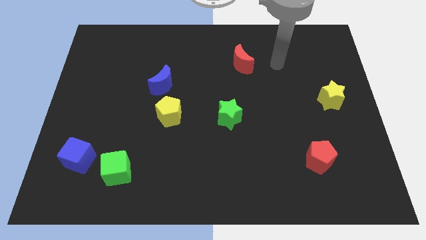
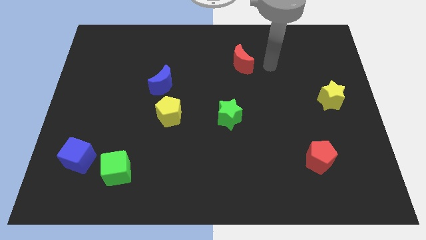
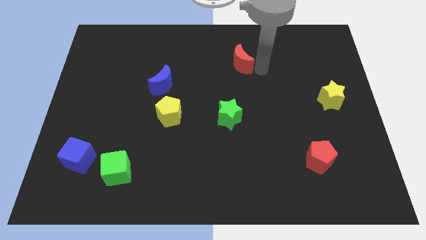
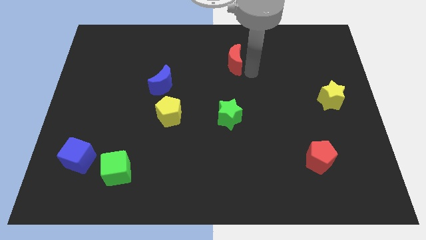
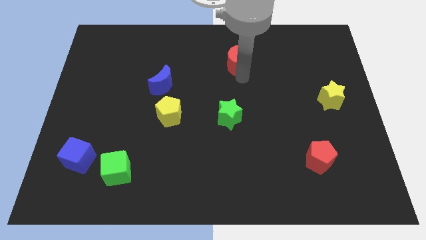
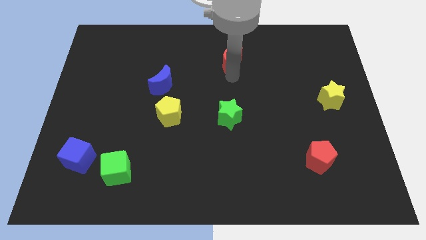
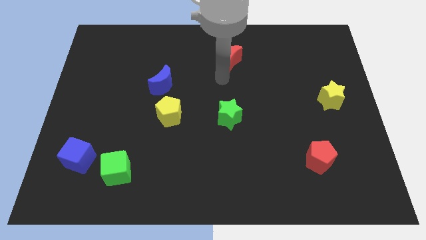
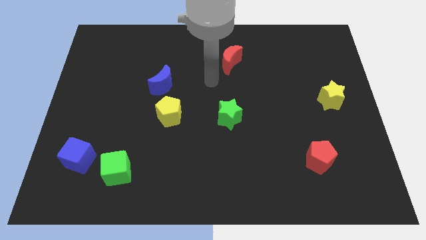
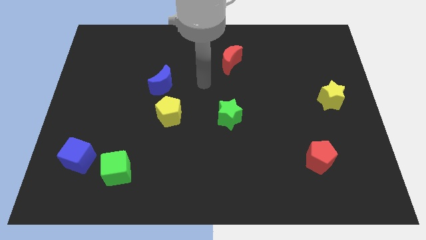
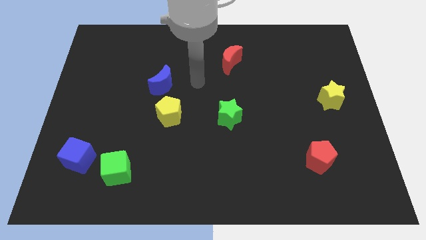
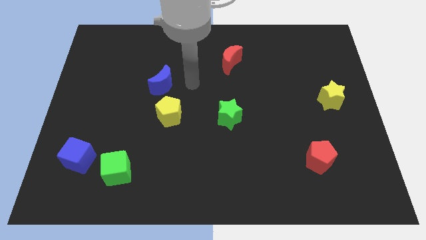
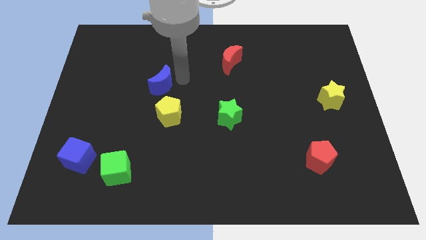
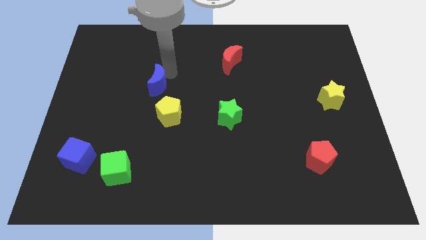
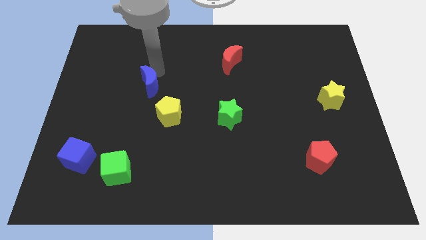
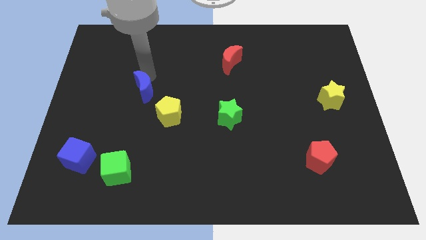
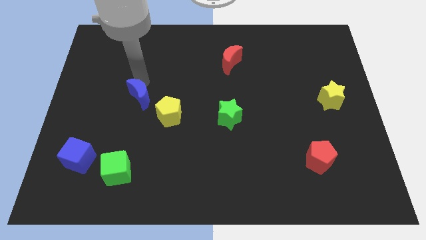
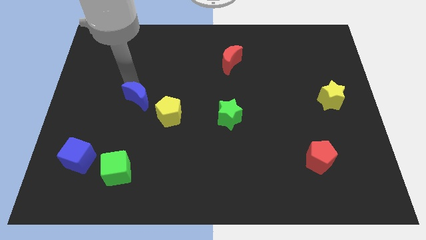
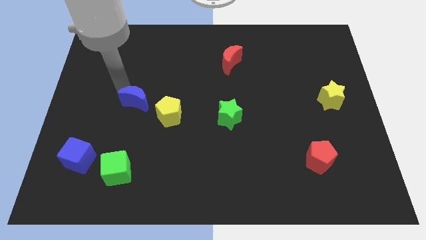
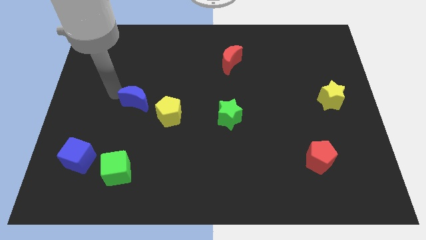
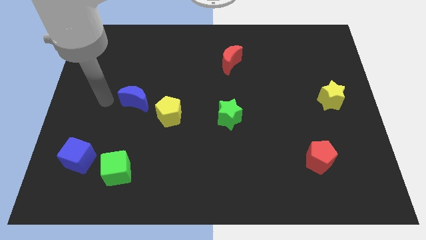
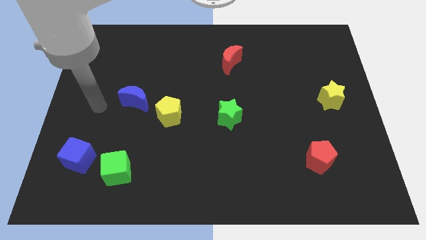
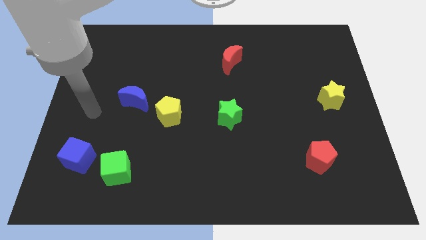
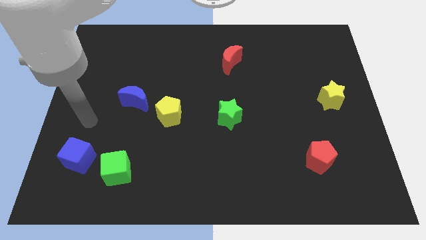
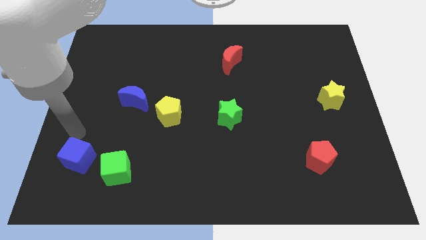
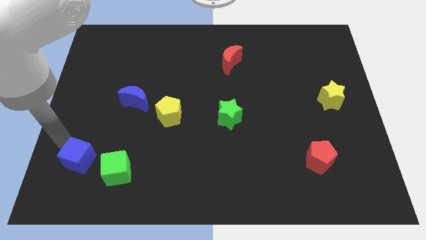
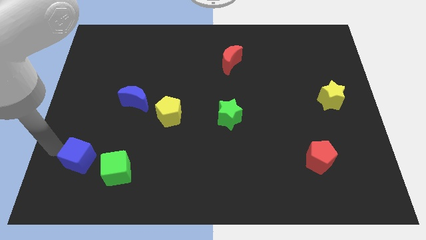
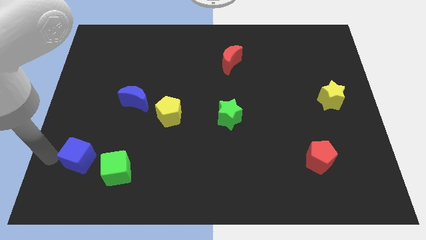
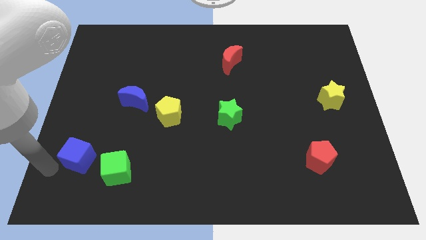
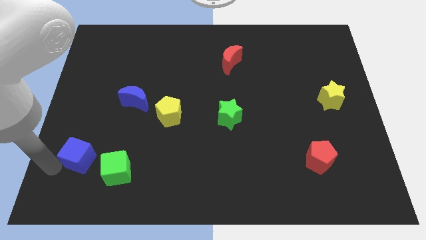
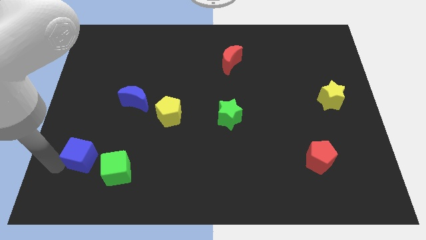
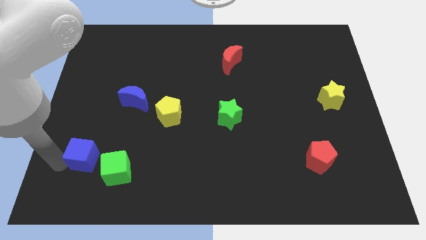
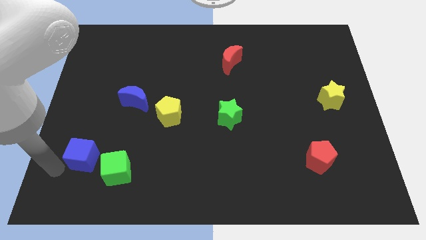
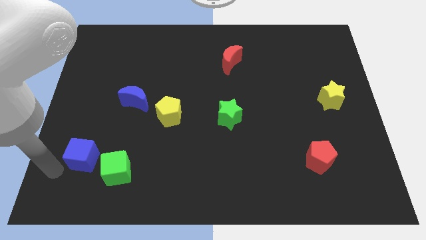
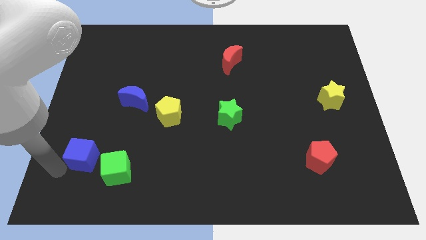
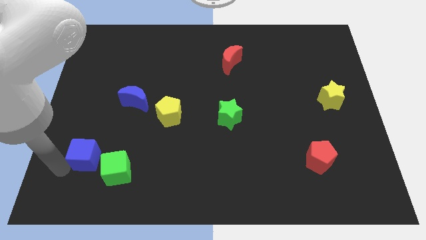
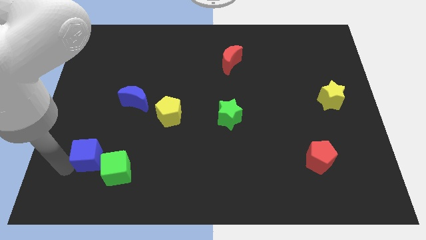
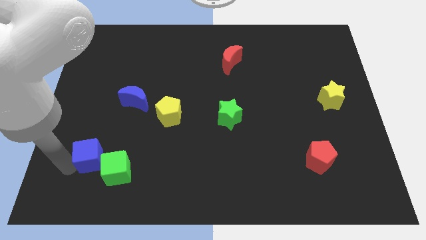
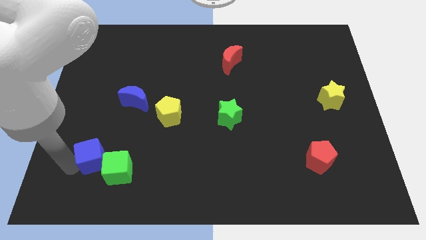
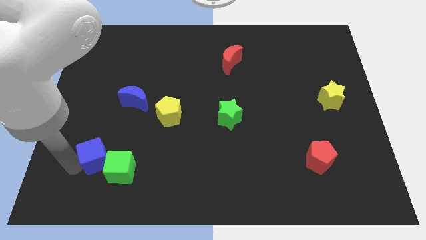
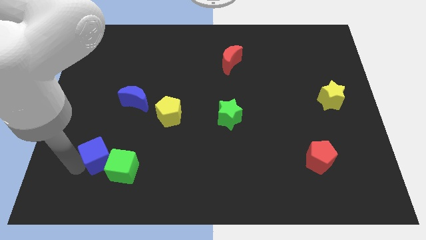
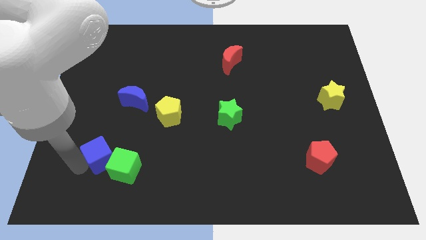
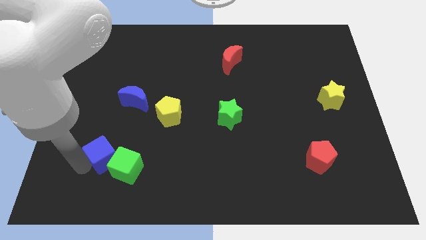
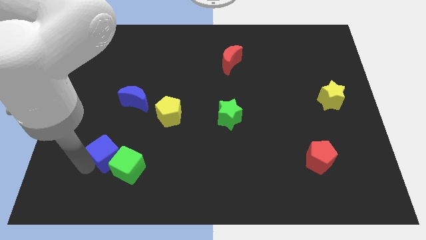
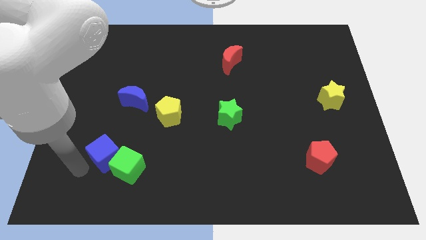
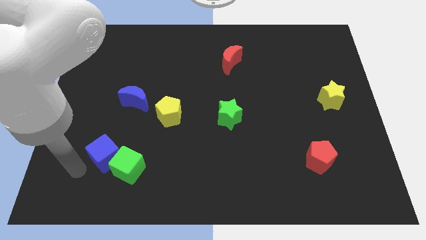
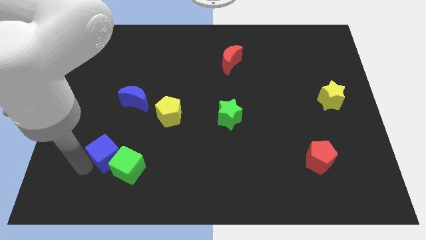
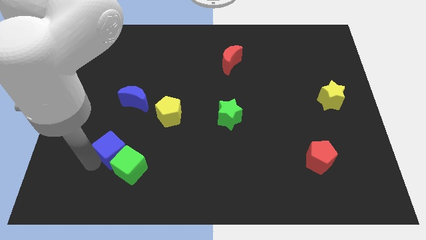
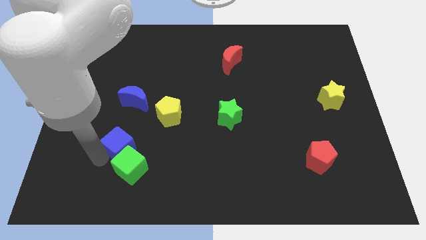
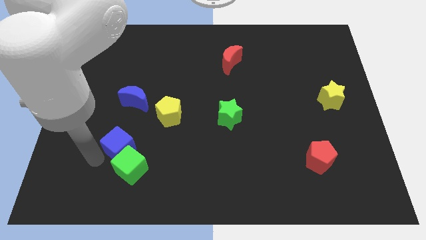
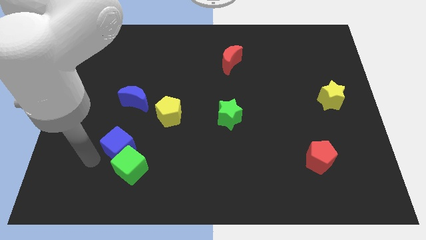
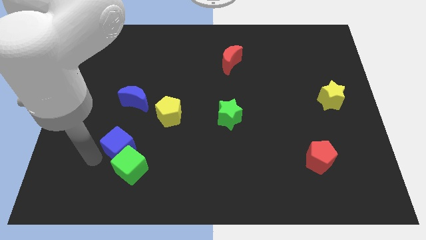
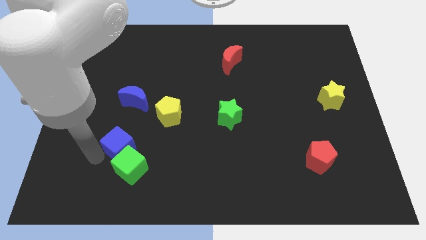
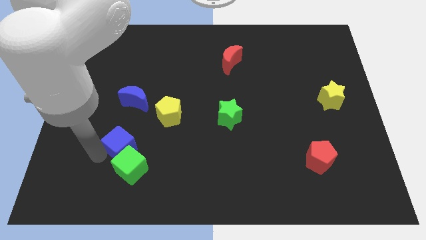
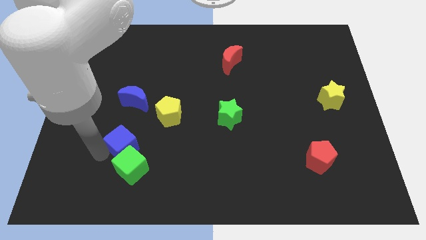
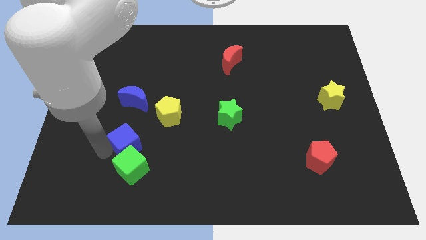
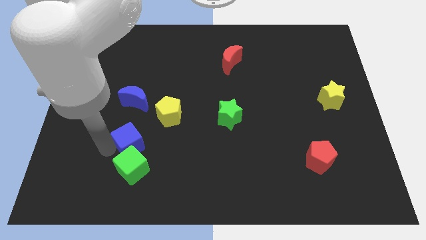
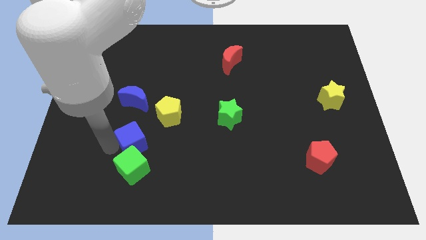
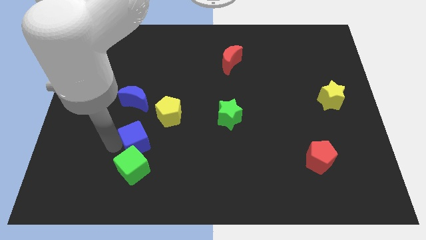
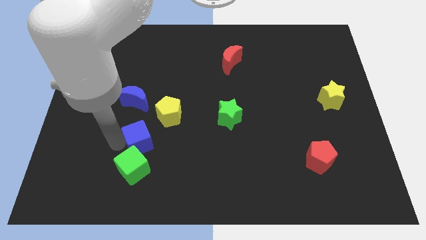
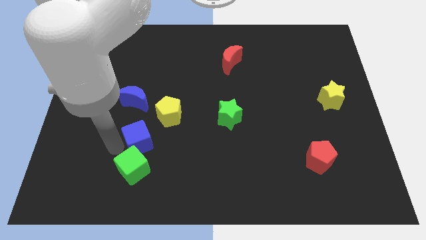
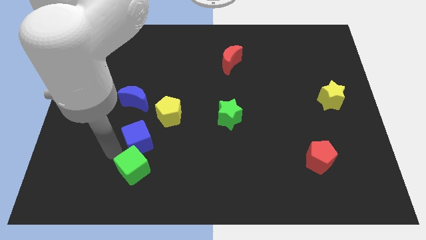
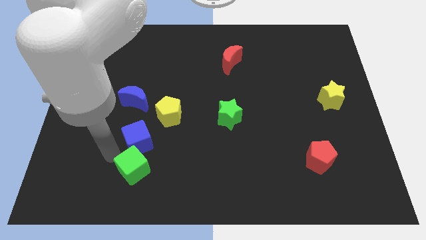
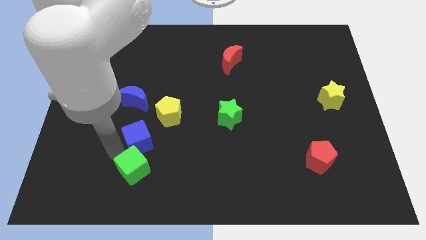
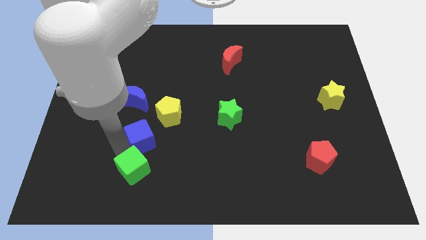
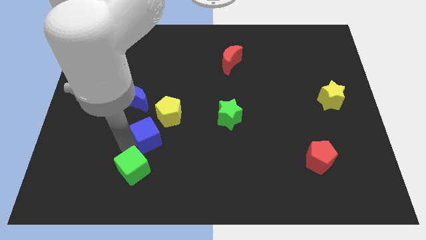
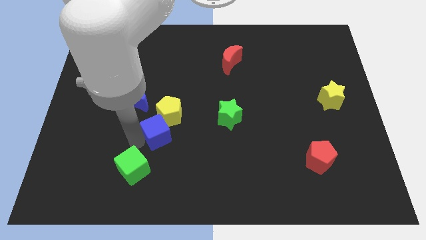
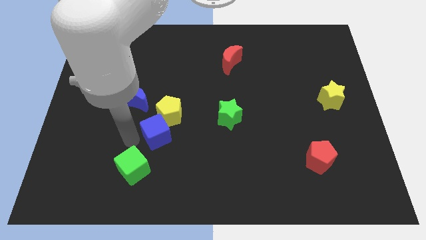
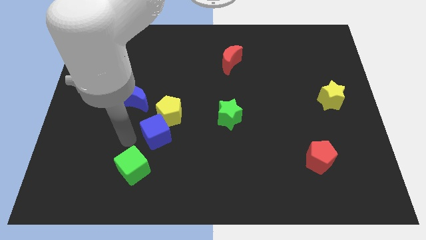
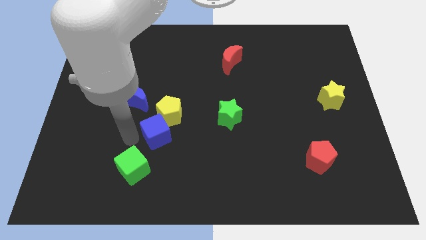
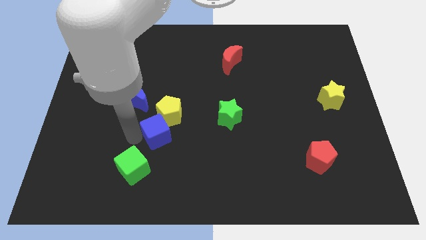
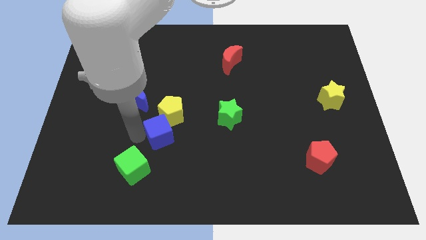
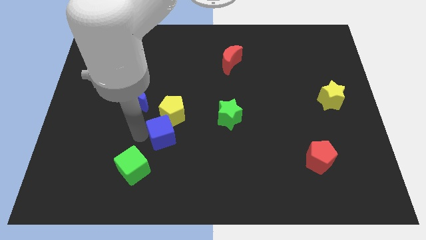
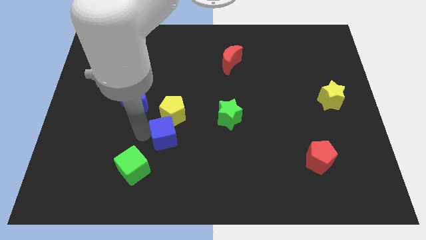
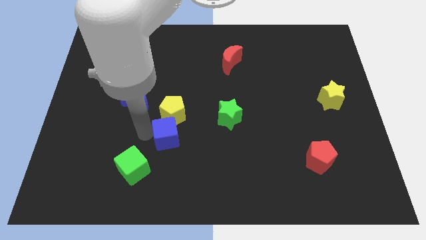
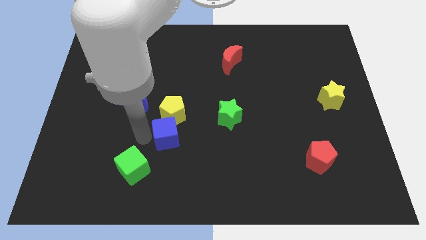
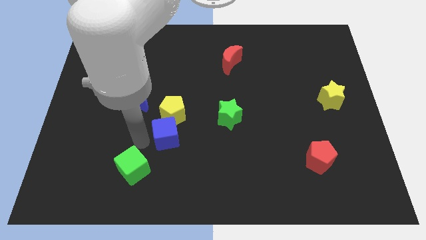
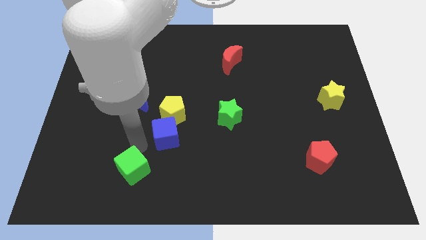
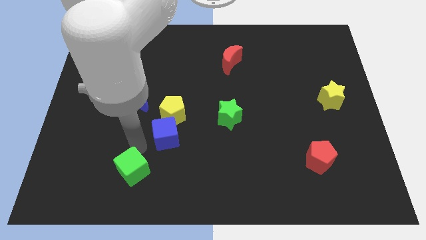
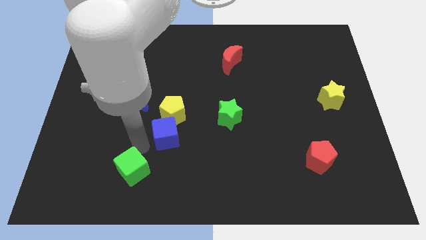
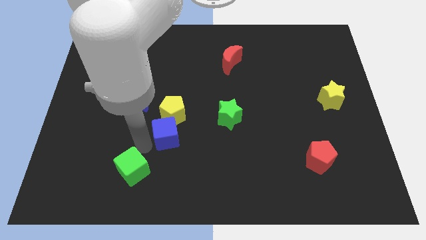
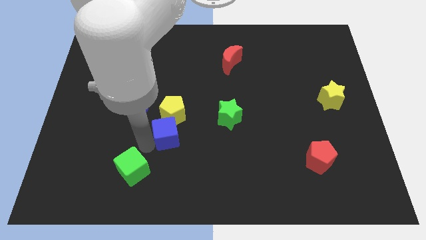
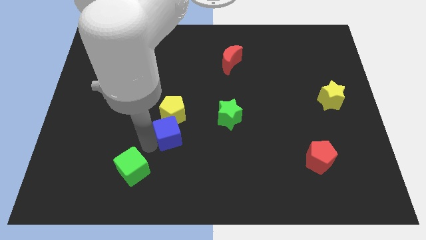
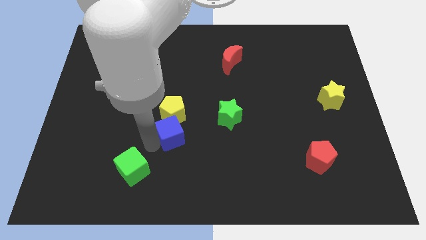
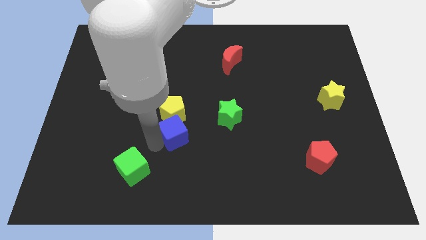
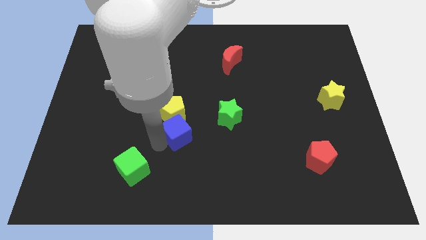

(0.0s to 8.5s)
slide the blue cube to the center
